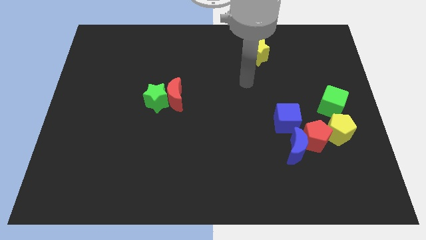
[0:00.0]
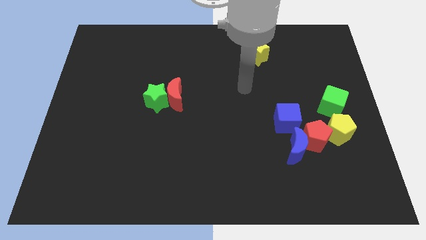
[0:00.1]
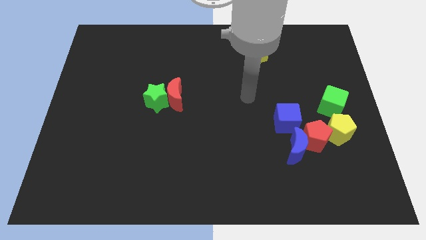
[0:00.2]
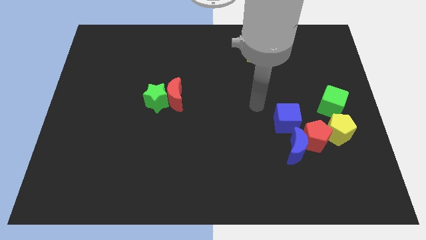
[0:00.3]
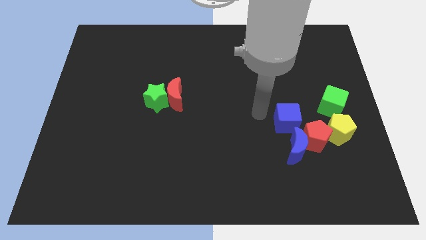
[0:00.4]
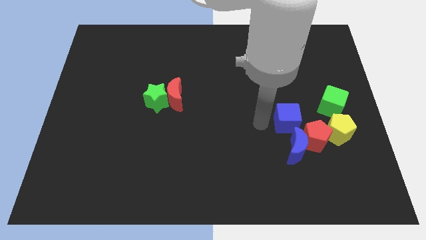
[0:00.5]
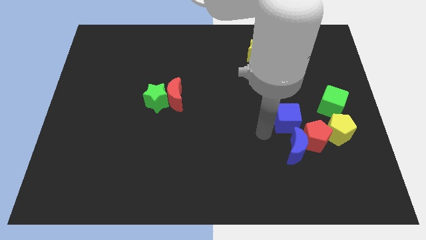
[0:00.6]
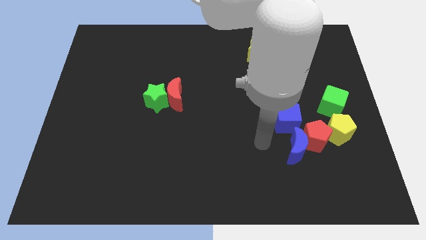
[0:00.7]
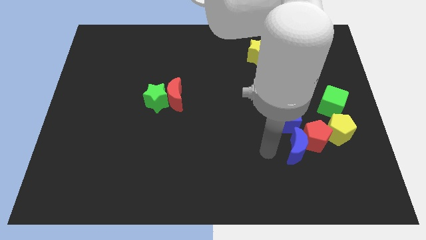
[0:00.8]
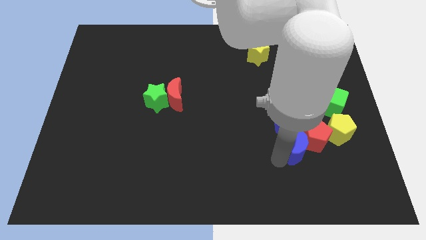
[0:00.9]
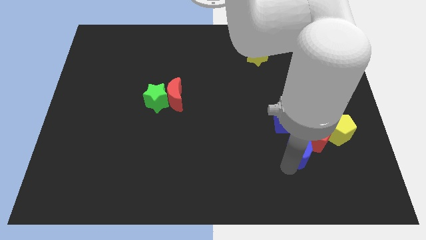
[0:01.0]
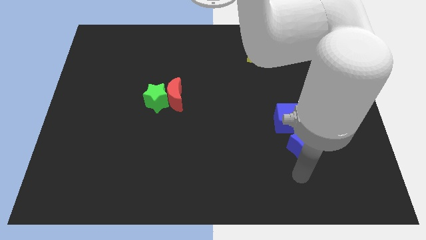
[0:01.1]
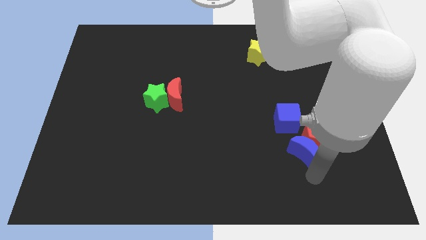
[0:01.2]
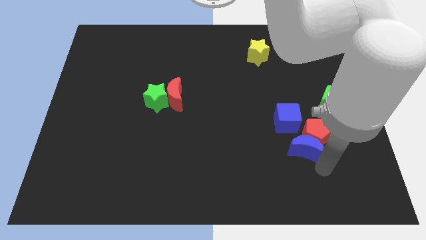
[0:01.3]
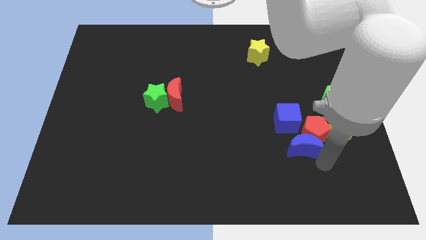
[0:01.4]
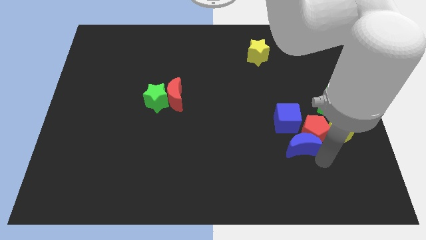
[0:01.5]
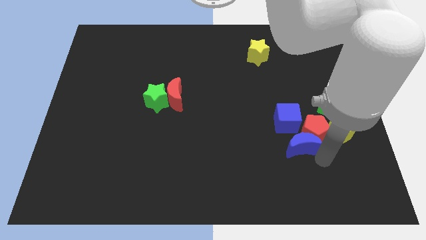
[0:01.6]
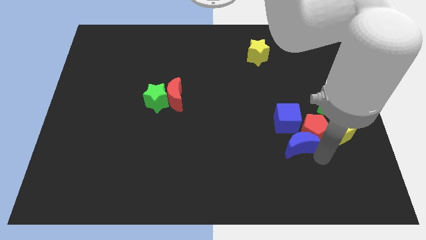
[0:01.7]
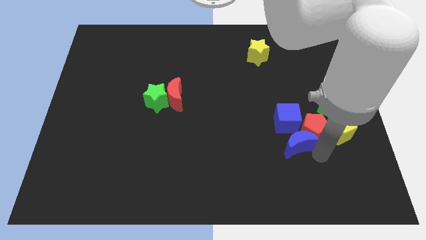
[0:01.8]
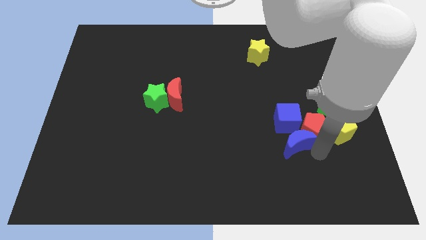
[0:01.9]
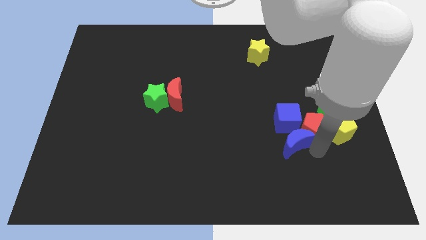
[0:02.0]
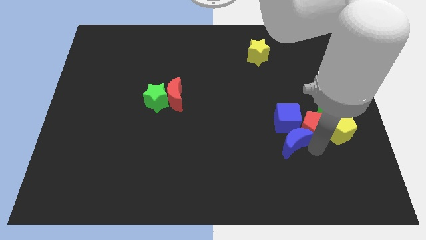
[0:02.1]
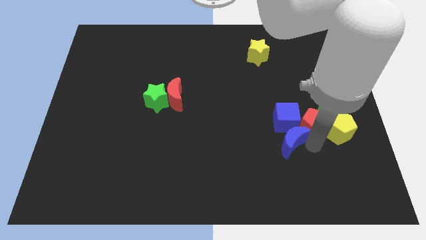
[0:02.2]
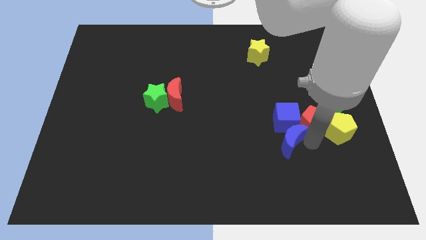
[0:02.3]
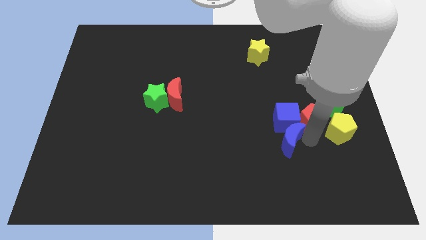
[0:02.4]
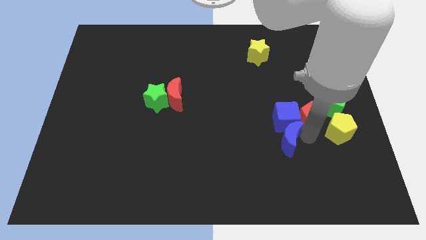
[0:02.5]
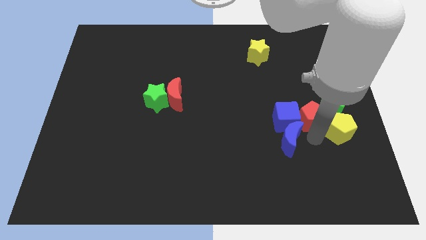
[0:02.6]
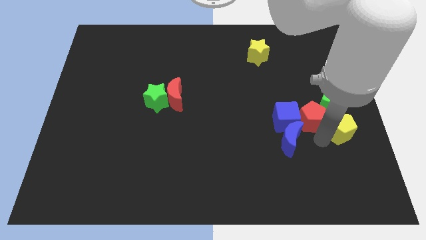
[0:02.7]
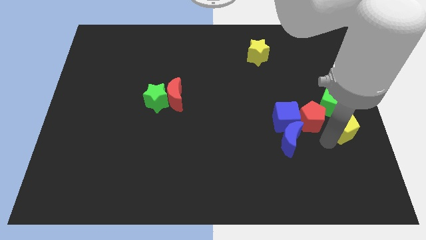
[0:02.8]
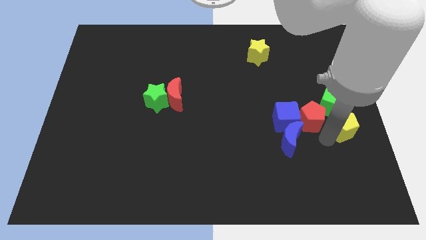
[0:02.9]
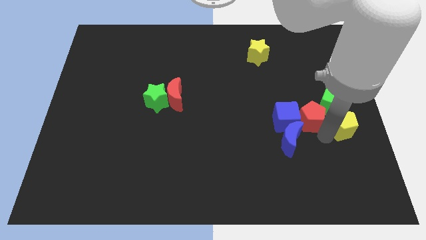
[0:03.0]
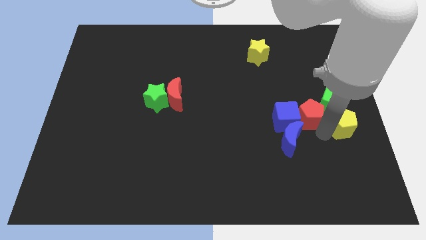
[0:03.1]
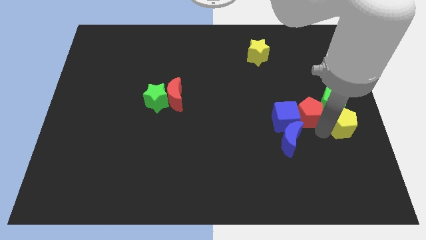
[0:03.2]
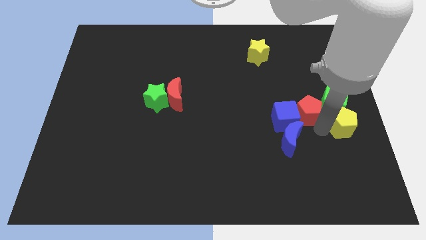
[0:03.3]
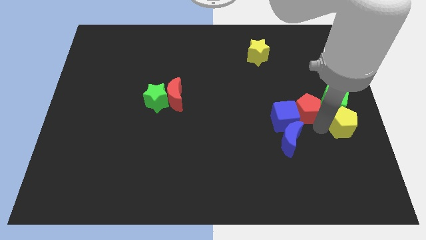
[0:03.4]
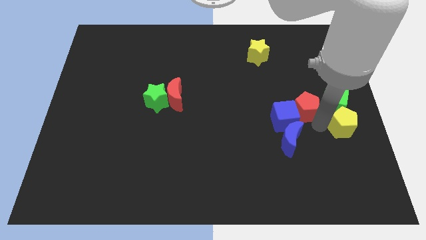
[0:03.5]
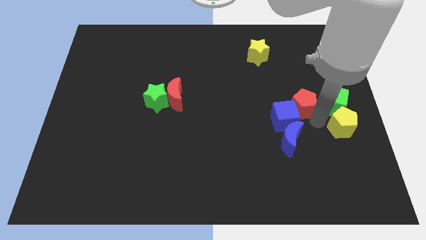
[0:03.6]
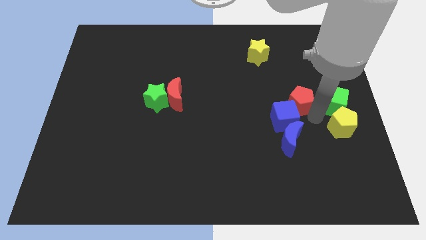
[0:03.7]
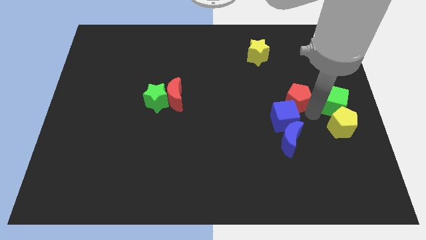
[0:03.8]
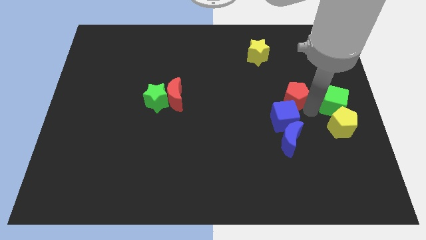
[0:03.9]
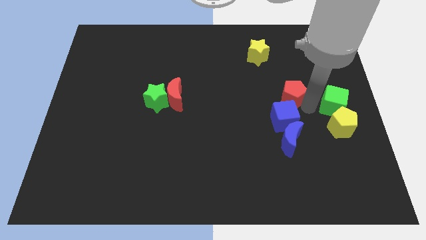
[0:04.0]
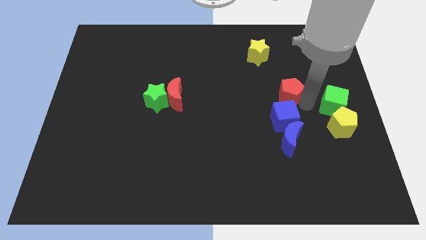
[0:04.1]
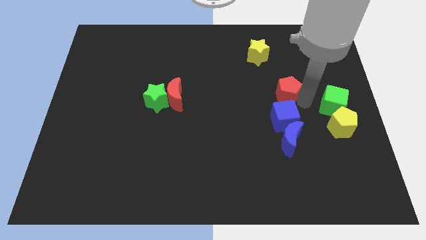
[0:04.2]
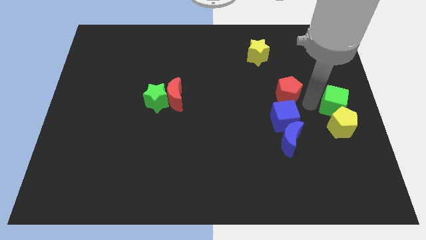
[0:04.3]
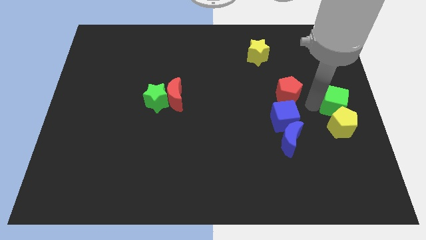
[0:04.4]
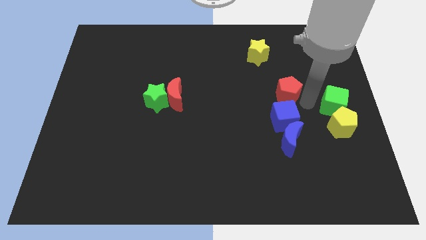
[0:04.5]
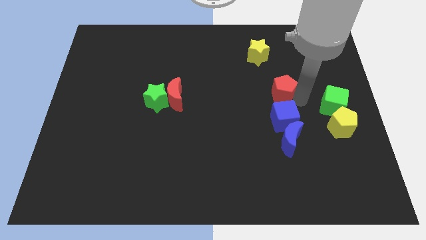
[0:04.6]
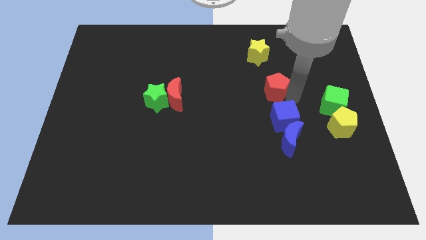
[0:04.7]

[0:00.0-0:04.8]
put the red pentagon to the bottom of the yellow star

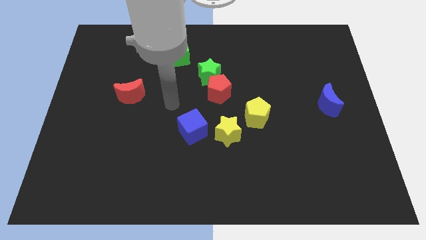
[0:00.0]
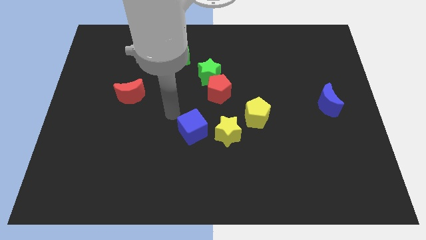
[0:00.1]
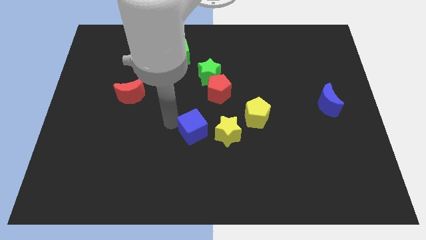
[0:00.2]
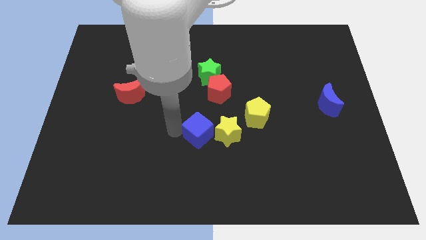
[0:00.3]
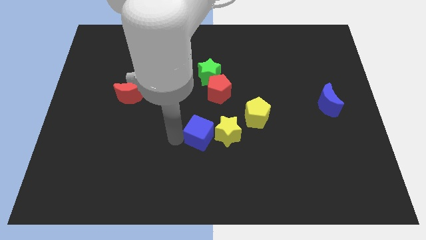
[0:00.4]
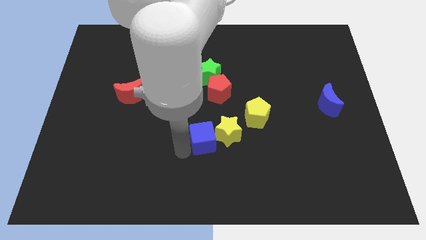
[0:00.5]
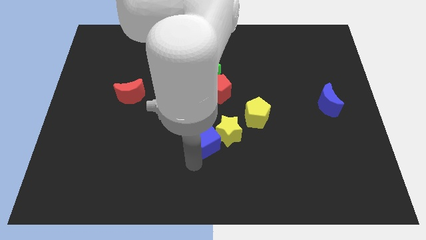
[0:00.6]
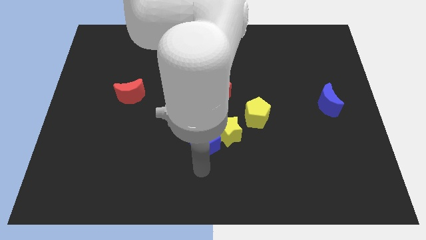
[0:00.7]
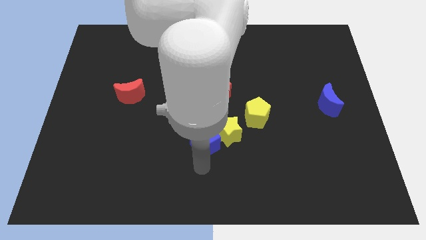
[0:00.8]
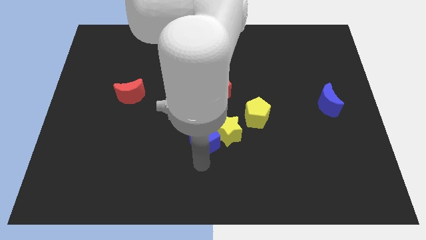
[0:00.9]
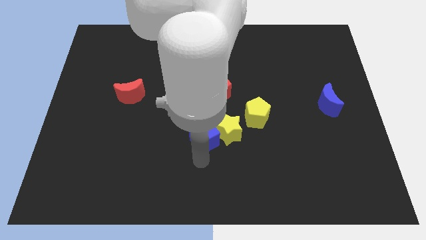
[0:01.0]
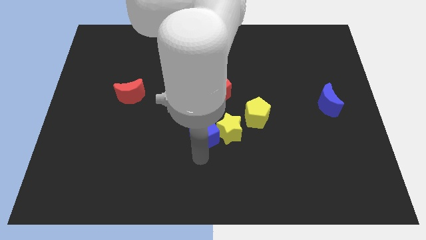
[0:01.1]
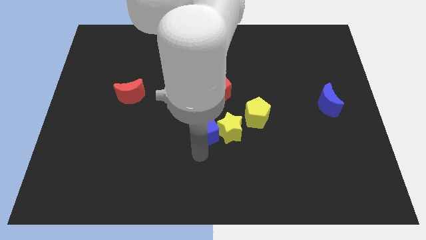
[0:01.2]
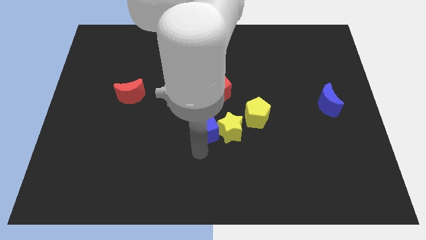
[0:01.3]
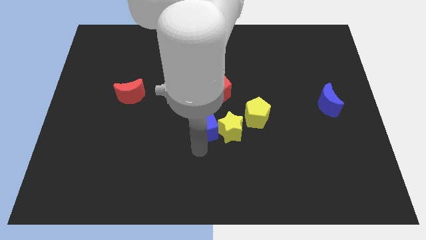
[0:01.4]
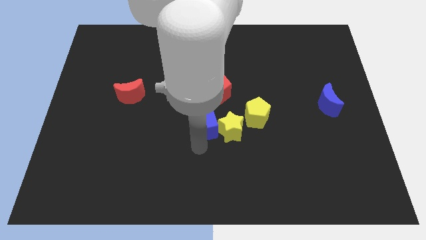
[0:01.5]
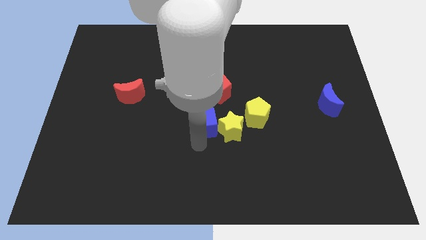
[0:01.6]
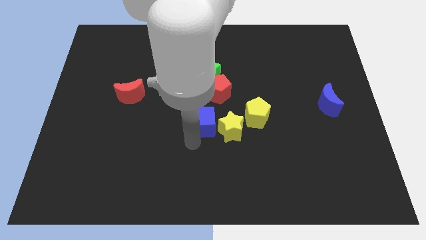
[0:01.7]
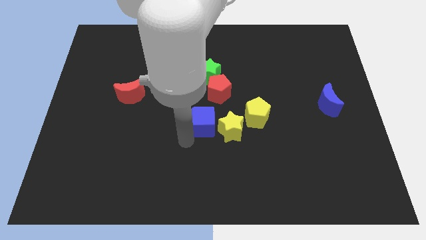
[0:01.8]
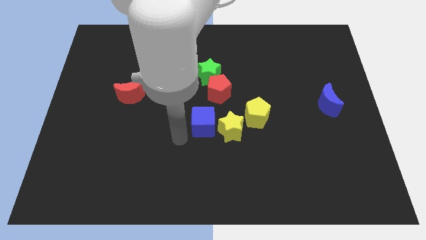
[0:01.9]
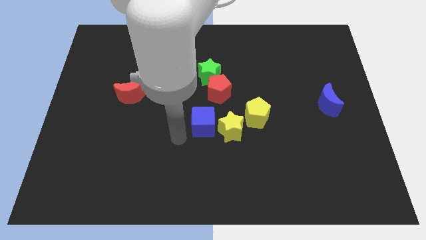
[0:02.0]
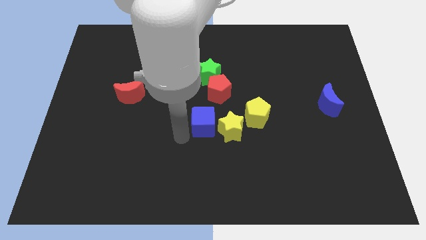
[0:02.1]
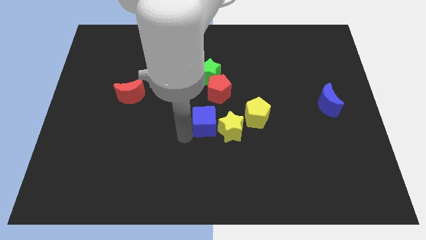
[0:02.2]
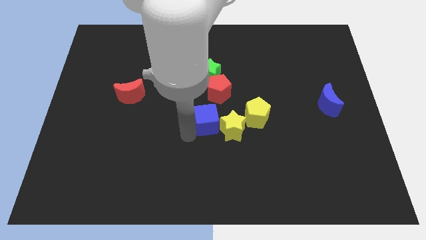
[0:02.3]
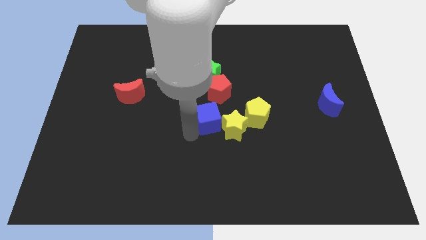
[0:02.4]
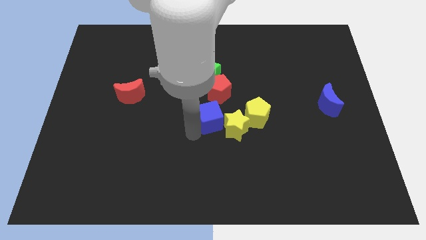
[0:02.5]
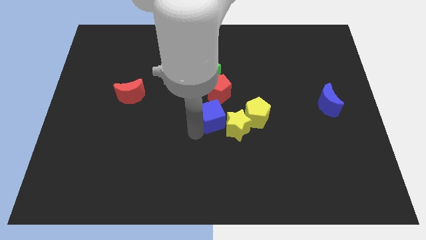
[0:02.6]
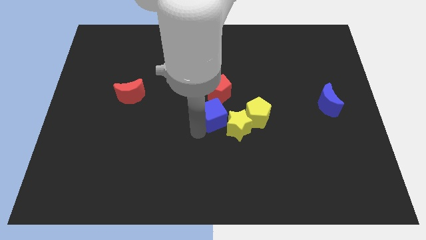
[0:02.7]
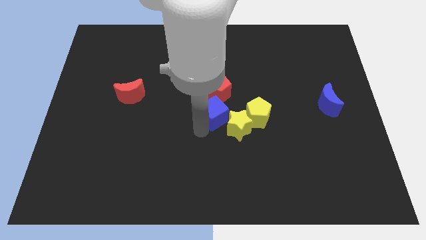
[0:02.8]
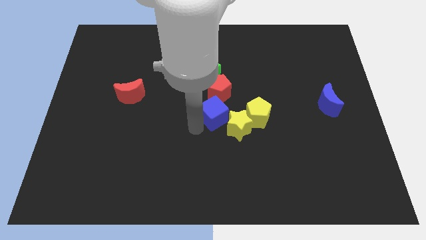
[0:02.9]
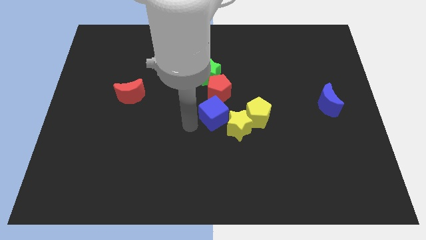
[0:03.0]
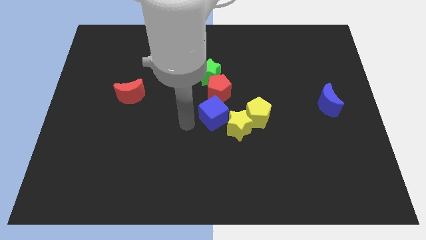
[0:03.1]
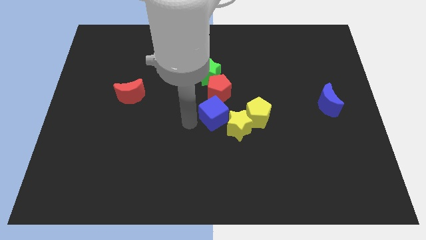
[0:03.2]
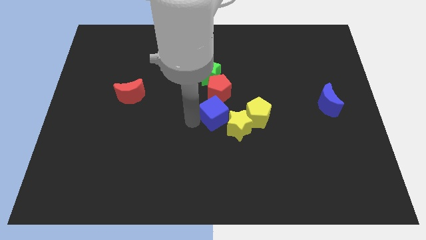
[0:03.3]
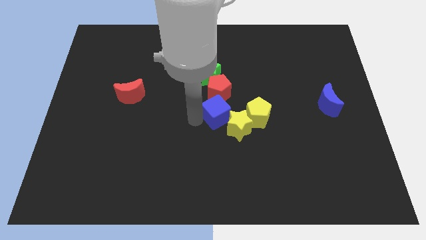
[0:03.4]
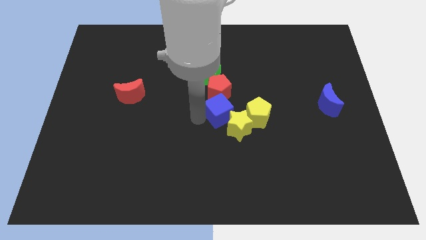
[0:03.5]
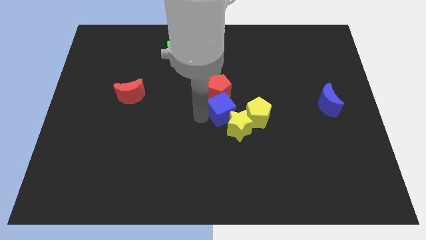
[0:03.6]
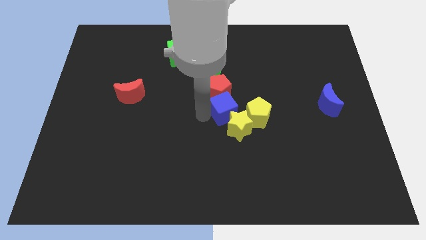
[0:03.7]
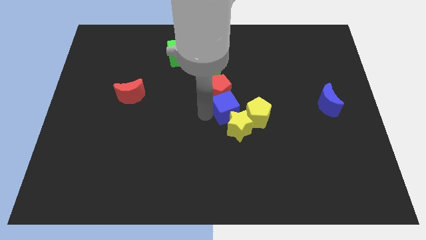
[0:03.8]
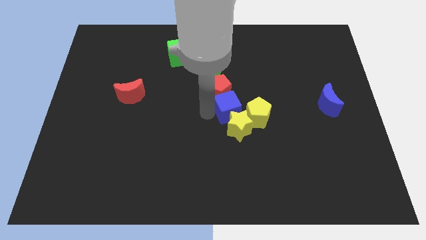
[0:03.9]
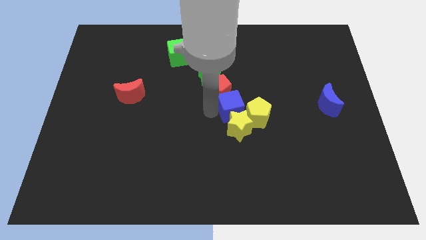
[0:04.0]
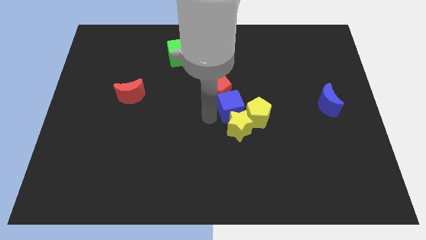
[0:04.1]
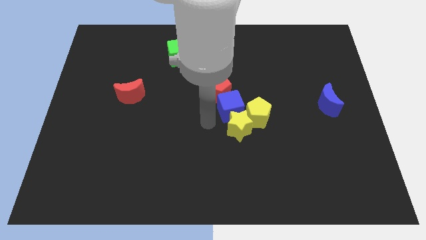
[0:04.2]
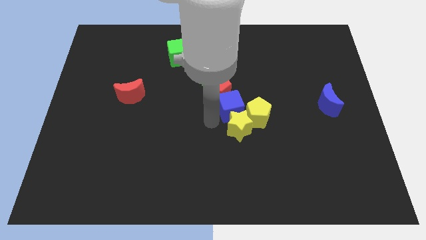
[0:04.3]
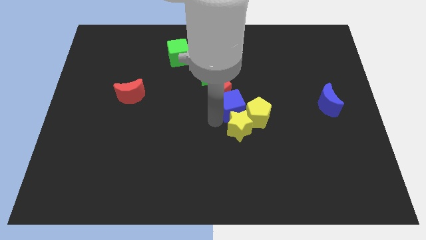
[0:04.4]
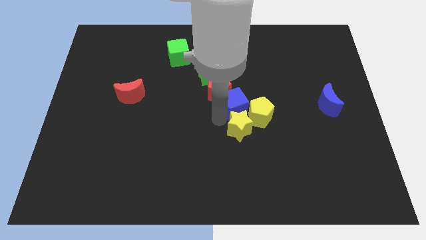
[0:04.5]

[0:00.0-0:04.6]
put the blue cube just right of the red pentagon
